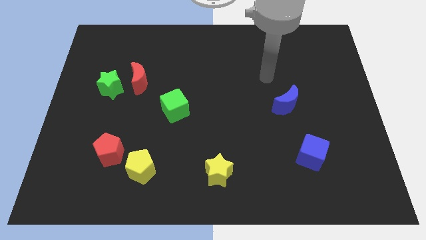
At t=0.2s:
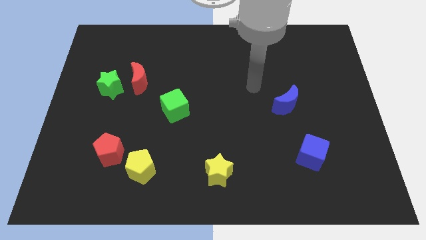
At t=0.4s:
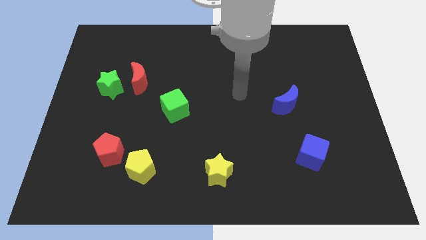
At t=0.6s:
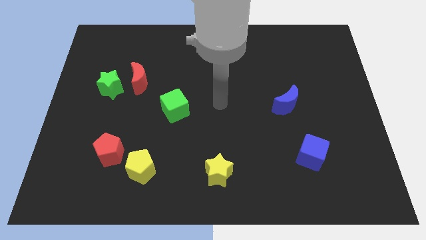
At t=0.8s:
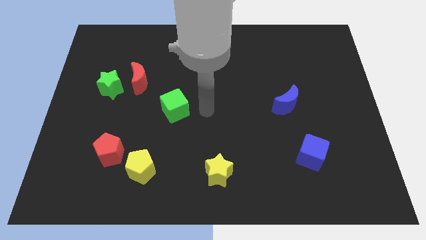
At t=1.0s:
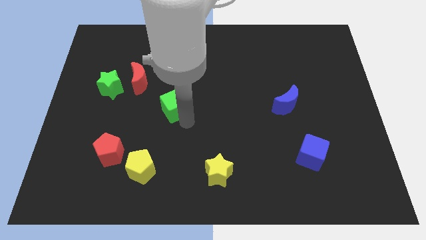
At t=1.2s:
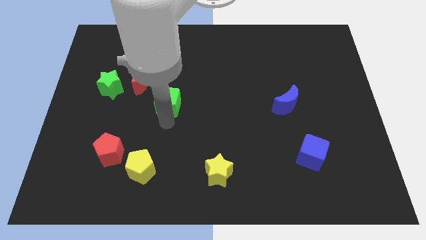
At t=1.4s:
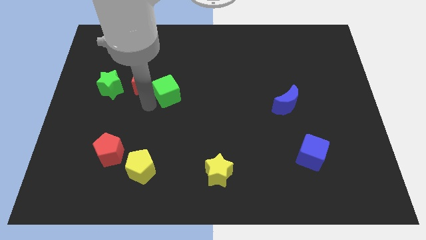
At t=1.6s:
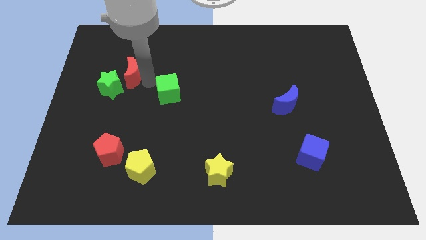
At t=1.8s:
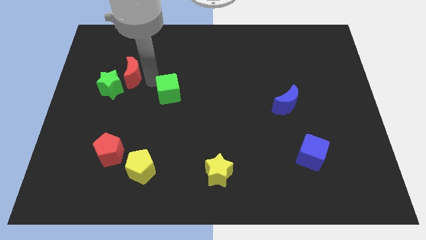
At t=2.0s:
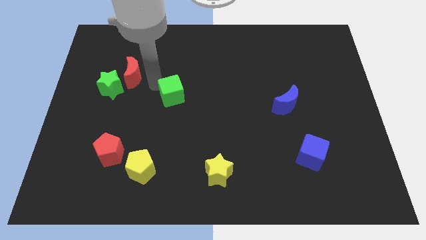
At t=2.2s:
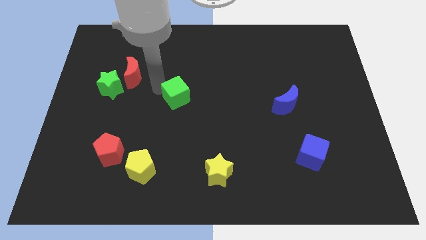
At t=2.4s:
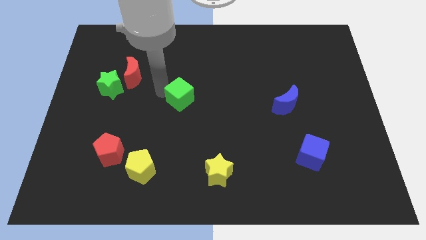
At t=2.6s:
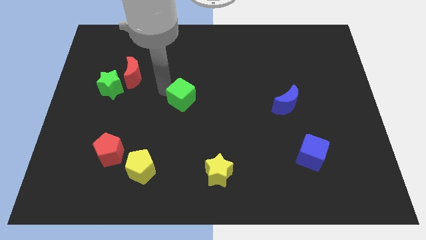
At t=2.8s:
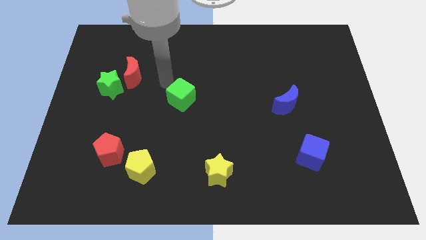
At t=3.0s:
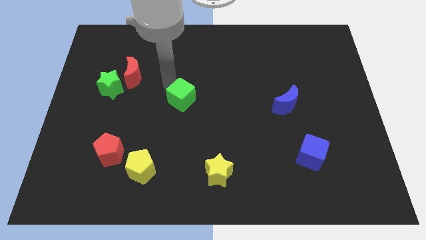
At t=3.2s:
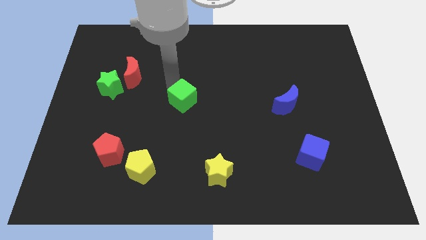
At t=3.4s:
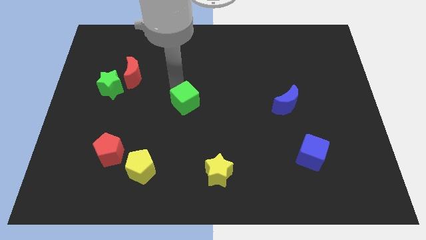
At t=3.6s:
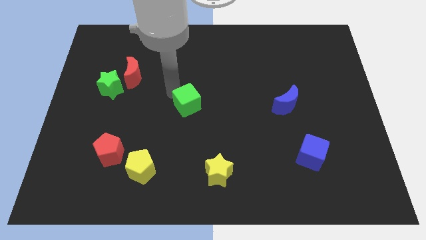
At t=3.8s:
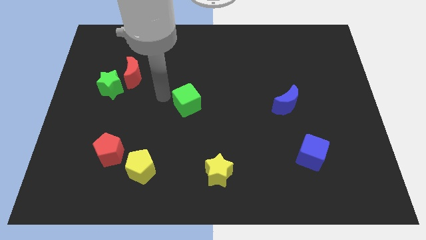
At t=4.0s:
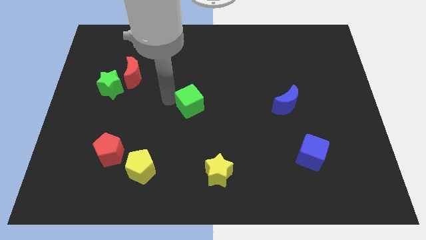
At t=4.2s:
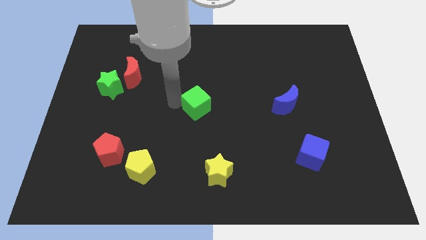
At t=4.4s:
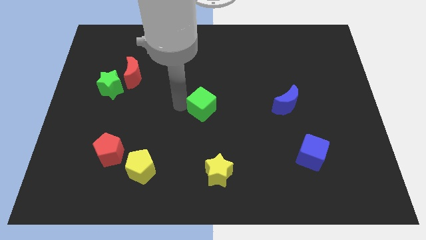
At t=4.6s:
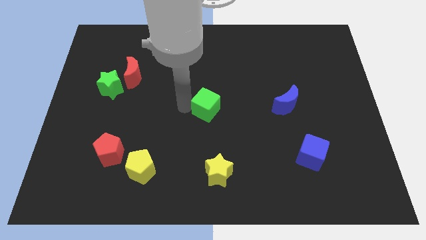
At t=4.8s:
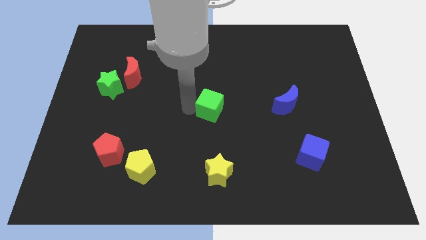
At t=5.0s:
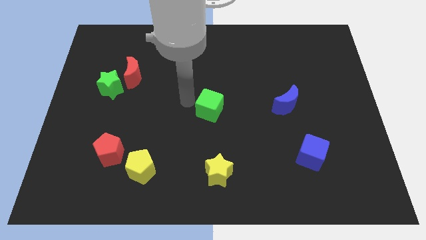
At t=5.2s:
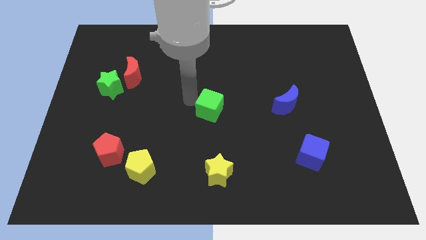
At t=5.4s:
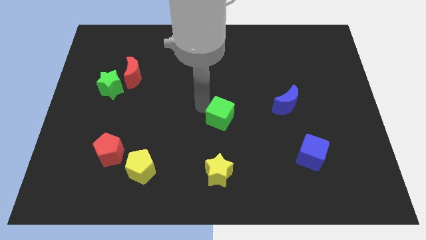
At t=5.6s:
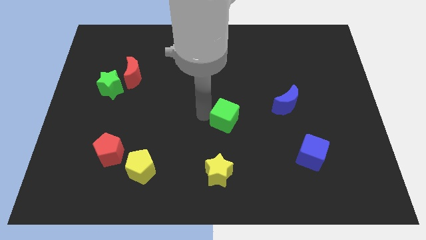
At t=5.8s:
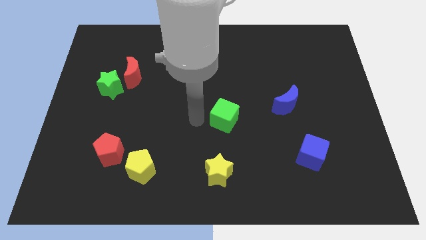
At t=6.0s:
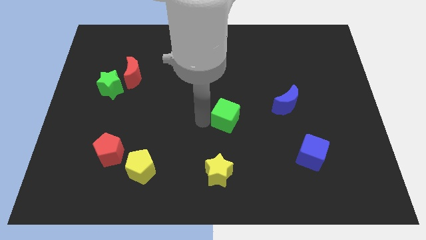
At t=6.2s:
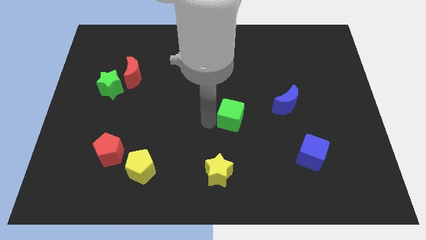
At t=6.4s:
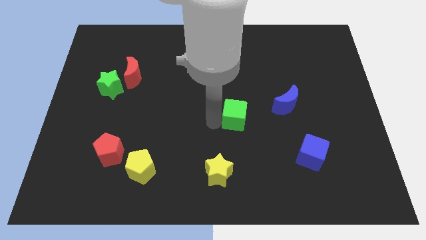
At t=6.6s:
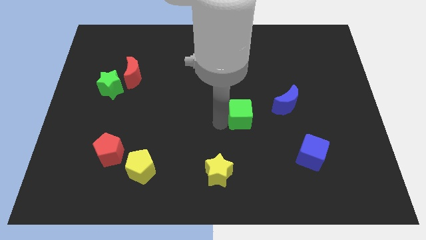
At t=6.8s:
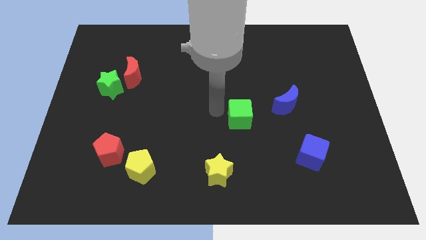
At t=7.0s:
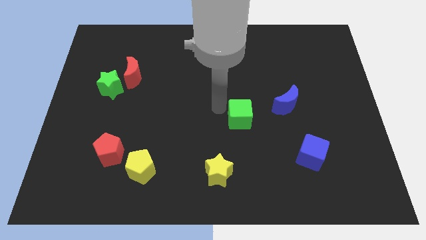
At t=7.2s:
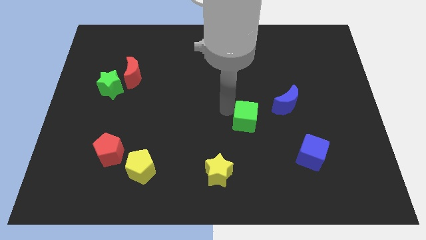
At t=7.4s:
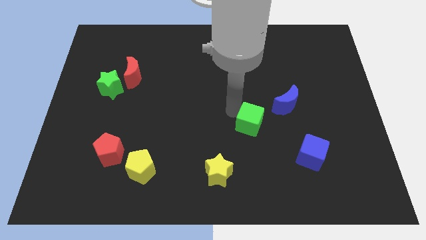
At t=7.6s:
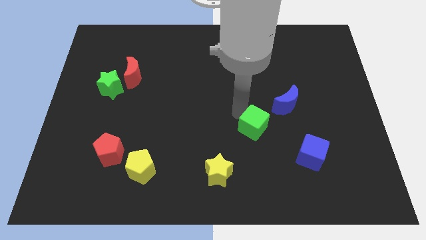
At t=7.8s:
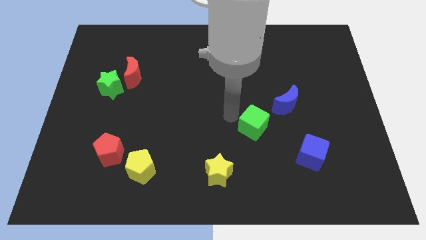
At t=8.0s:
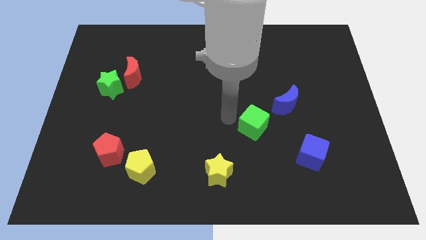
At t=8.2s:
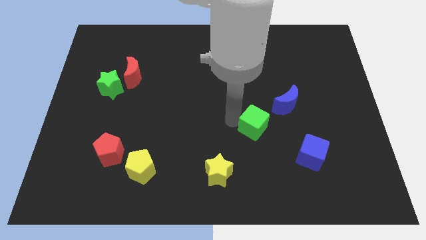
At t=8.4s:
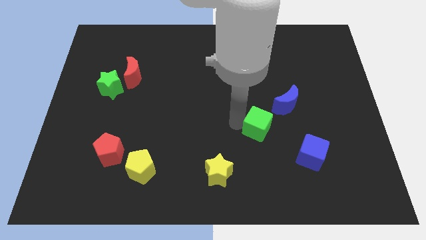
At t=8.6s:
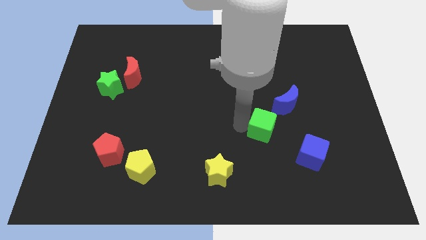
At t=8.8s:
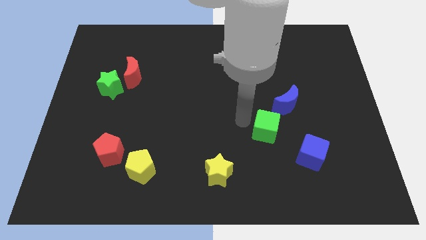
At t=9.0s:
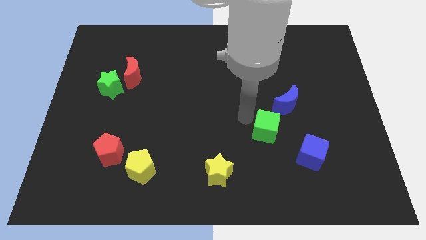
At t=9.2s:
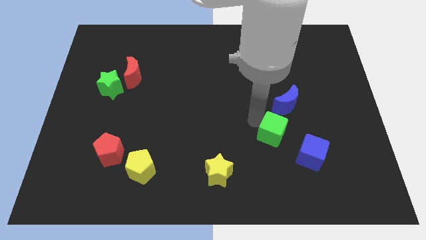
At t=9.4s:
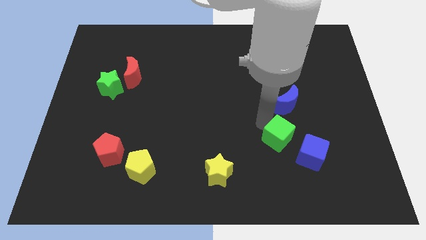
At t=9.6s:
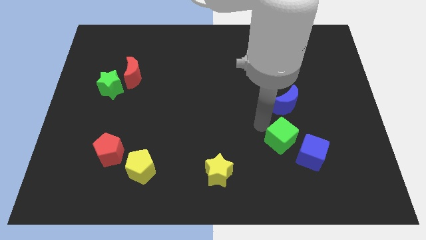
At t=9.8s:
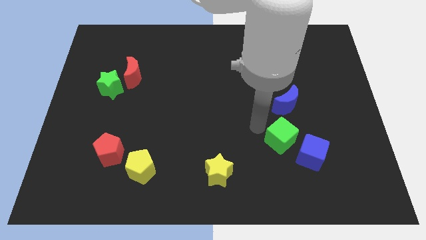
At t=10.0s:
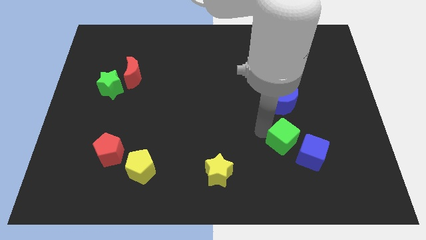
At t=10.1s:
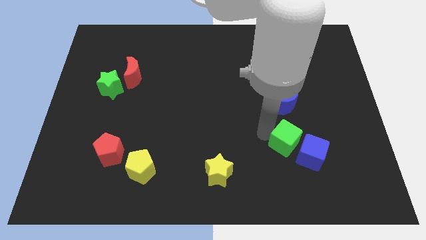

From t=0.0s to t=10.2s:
put the green cube close to the blue cube

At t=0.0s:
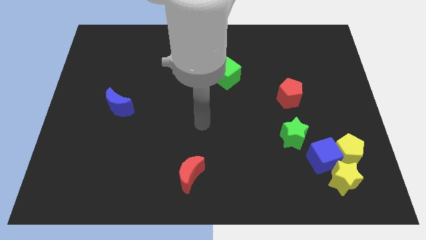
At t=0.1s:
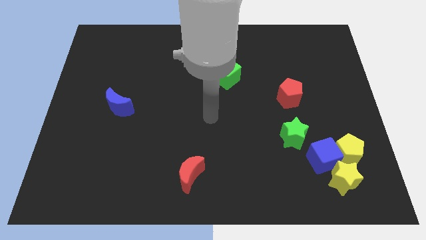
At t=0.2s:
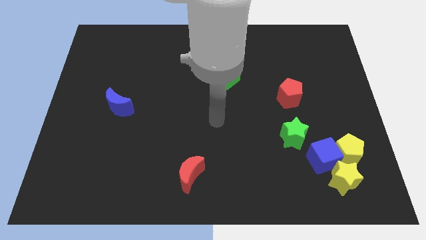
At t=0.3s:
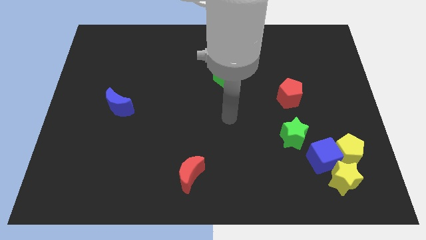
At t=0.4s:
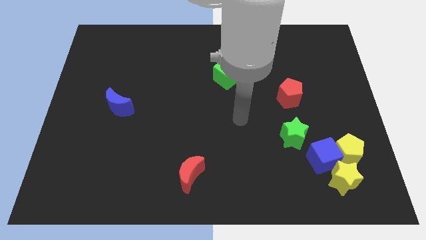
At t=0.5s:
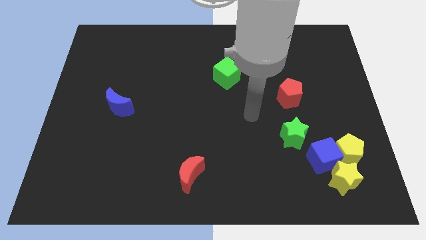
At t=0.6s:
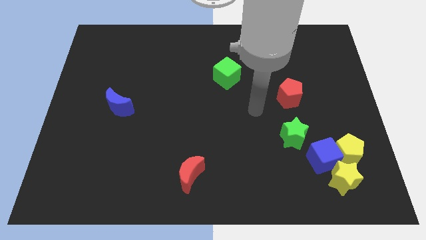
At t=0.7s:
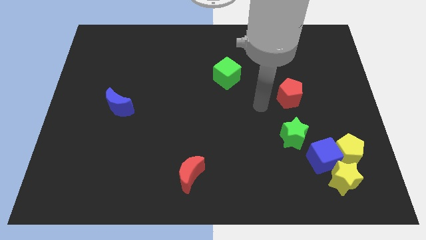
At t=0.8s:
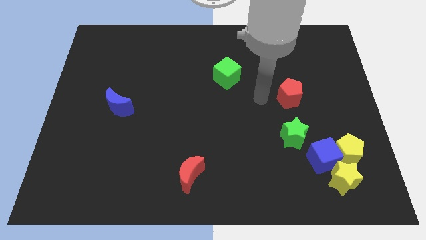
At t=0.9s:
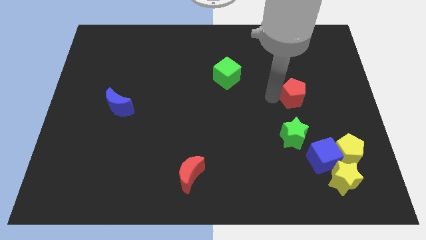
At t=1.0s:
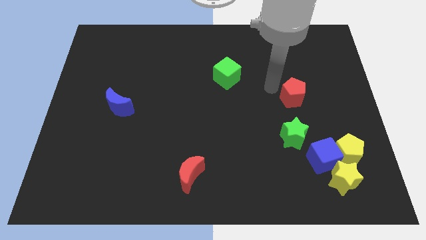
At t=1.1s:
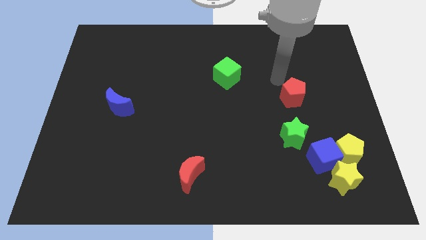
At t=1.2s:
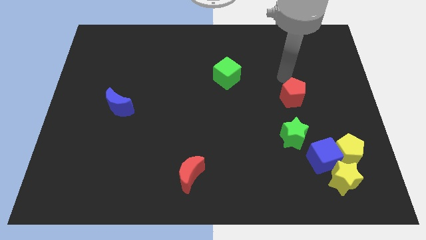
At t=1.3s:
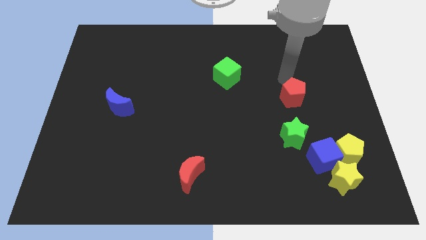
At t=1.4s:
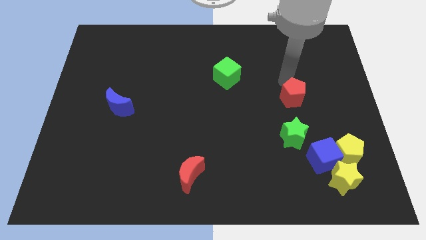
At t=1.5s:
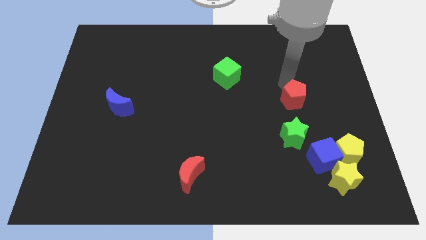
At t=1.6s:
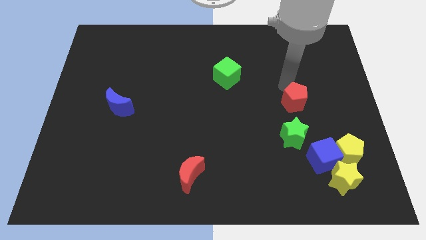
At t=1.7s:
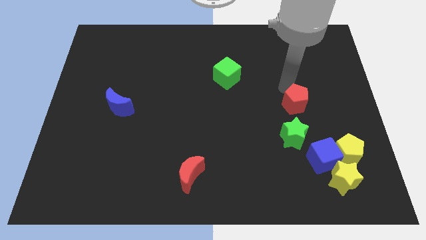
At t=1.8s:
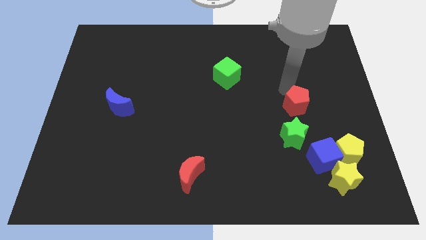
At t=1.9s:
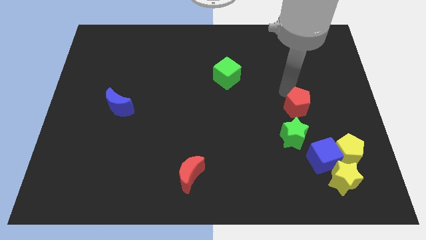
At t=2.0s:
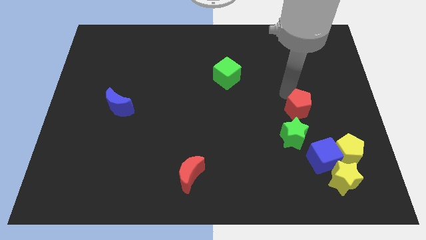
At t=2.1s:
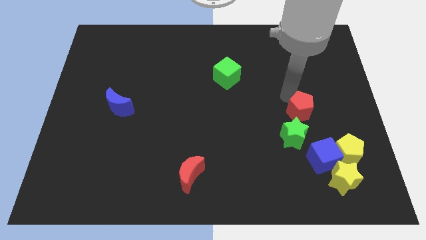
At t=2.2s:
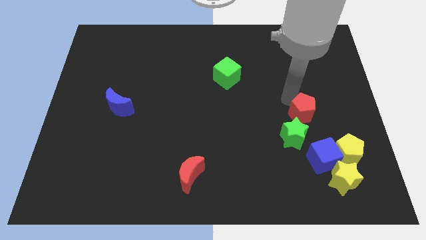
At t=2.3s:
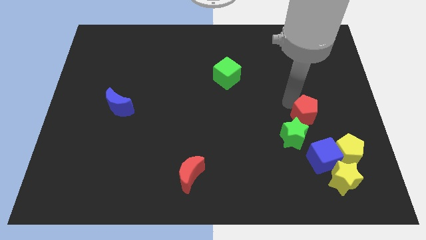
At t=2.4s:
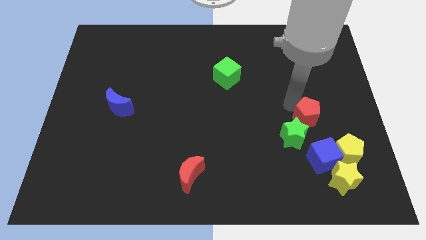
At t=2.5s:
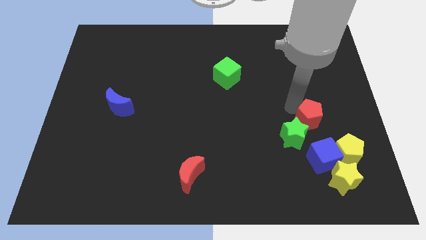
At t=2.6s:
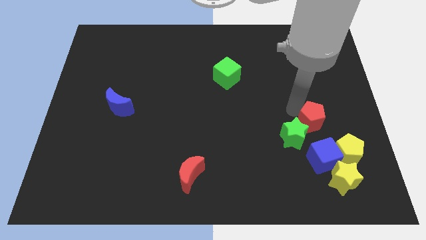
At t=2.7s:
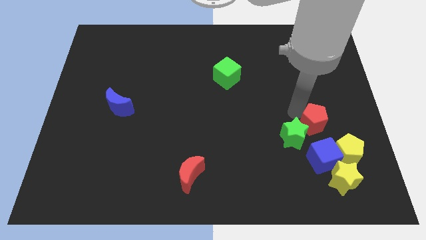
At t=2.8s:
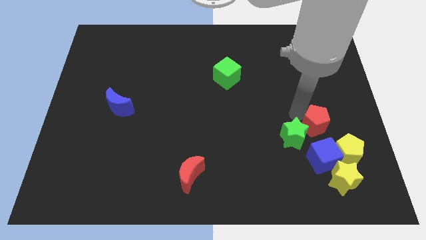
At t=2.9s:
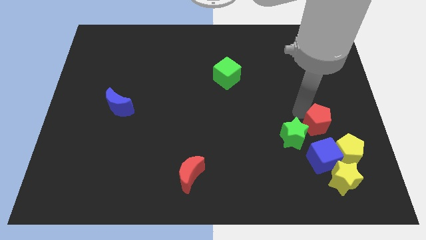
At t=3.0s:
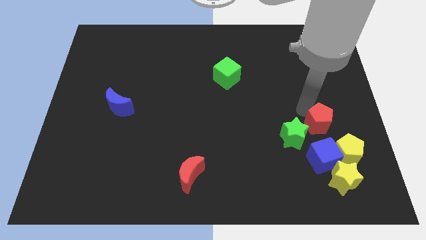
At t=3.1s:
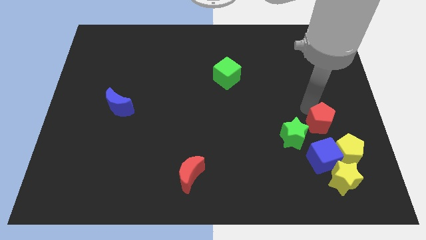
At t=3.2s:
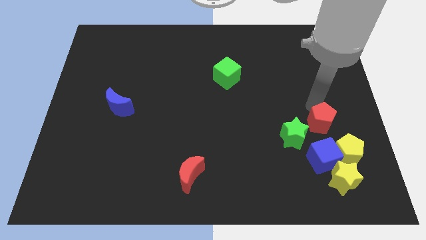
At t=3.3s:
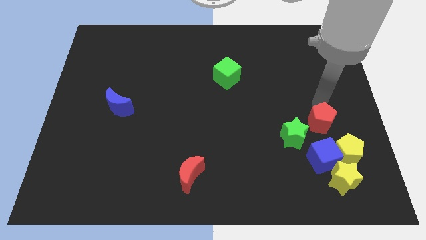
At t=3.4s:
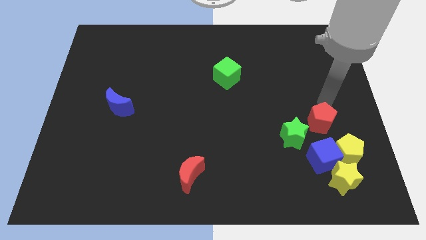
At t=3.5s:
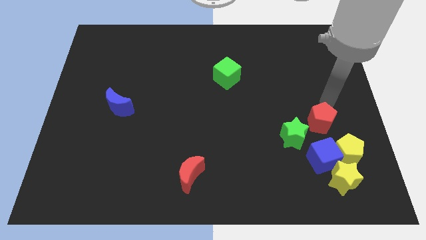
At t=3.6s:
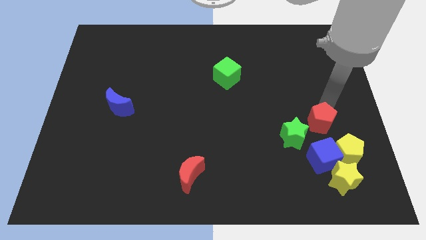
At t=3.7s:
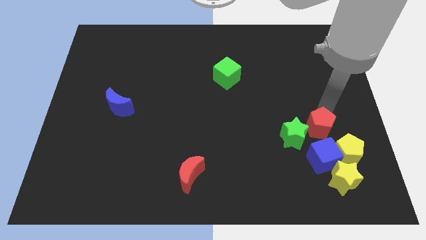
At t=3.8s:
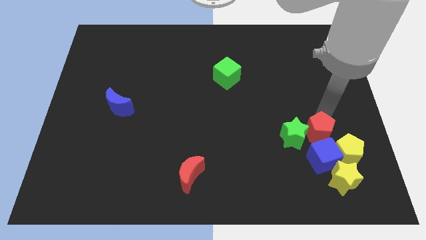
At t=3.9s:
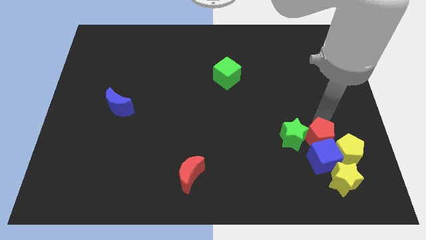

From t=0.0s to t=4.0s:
slide the red pentagon towards the blue cube
